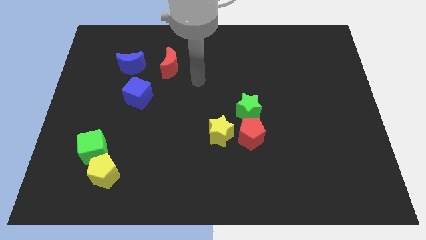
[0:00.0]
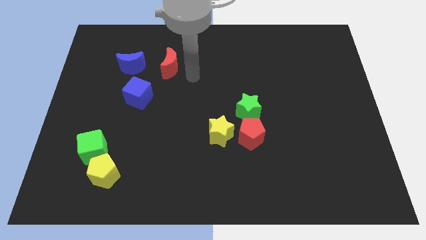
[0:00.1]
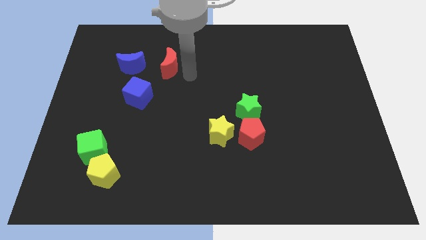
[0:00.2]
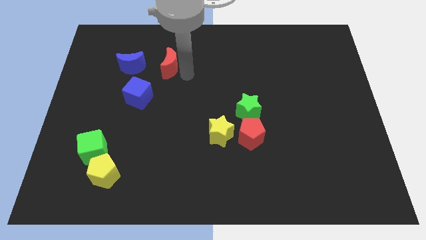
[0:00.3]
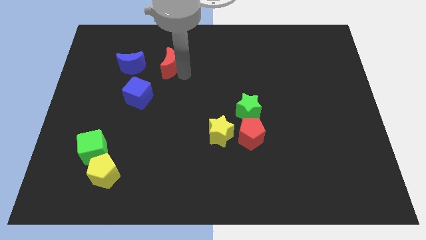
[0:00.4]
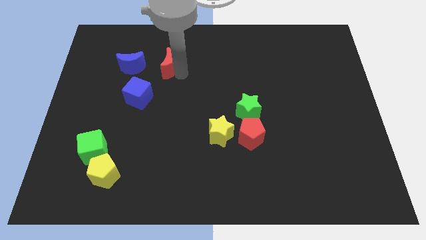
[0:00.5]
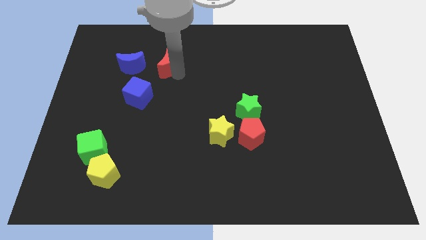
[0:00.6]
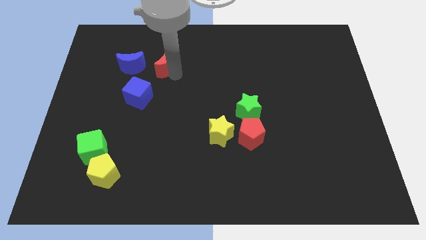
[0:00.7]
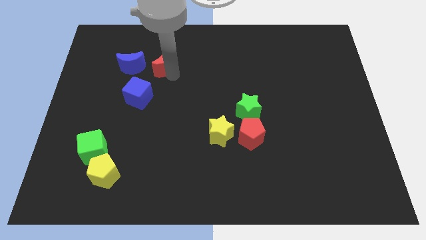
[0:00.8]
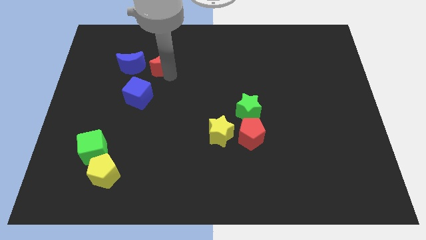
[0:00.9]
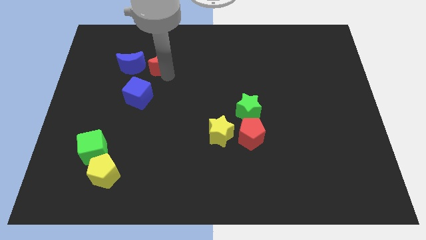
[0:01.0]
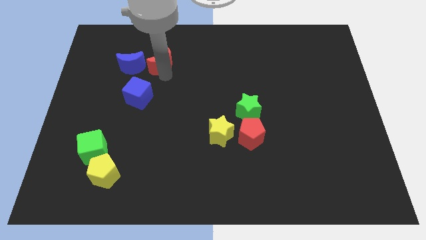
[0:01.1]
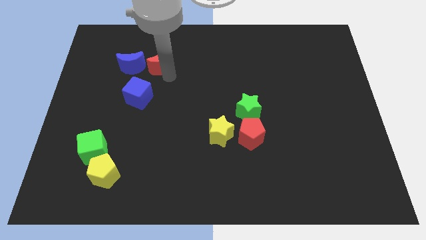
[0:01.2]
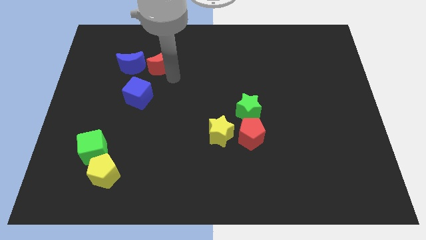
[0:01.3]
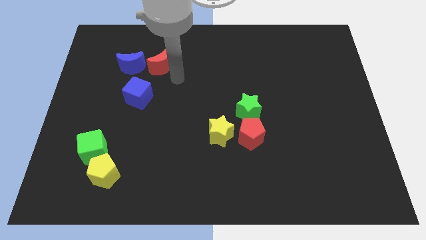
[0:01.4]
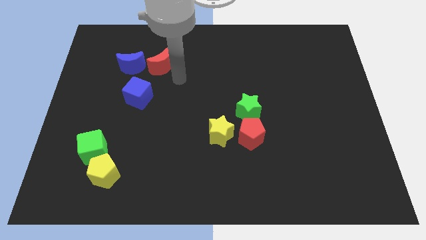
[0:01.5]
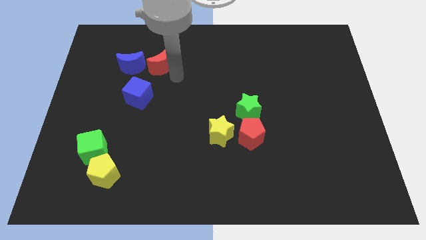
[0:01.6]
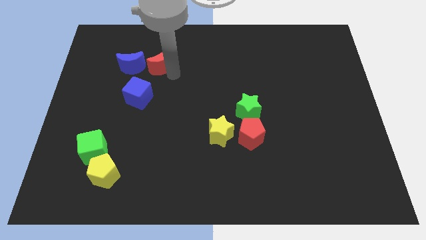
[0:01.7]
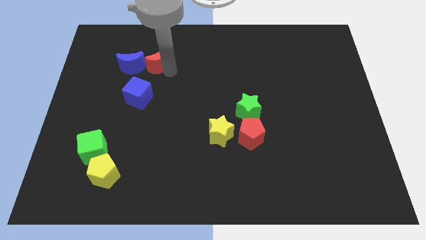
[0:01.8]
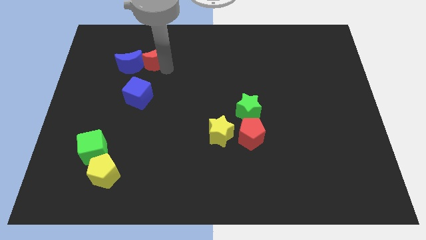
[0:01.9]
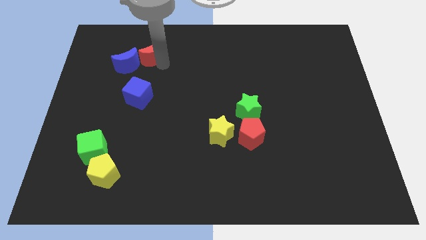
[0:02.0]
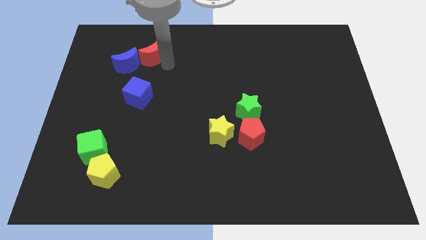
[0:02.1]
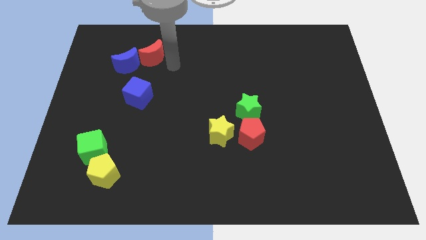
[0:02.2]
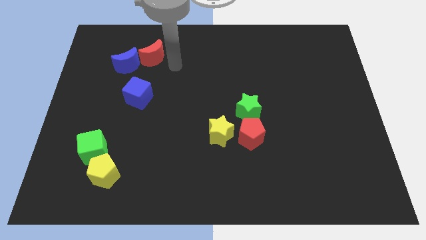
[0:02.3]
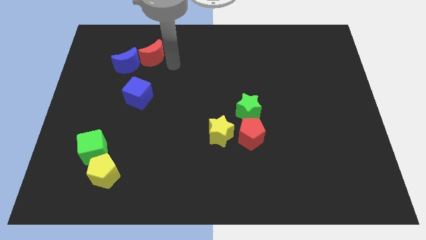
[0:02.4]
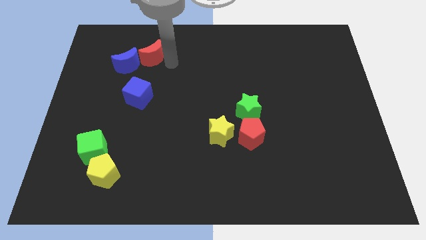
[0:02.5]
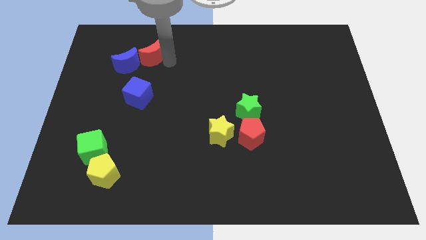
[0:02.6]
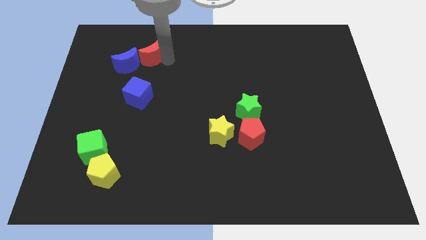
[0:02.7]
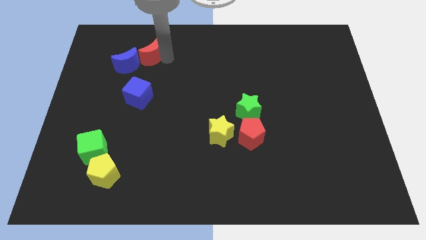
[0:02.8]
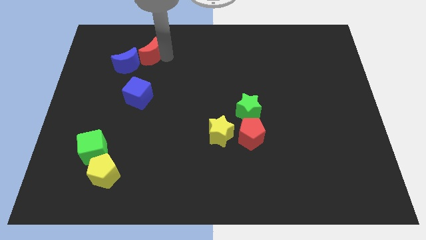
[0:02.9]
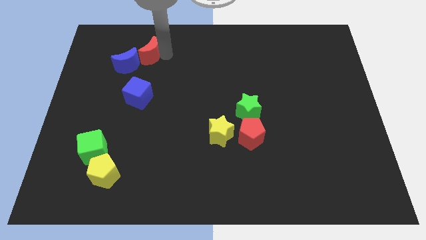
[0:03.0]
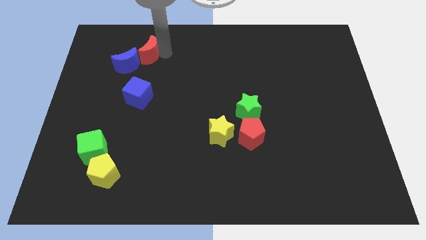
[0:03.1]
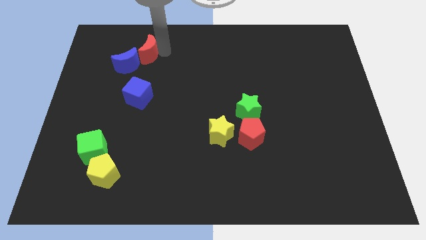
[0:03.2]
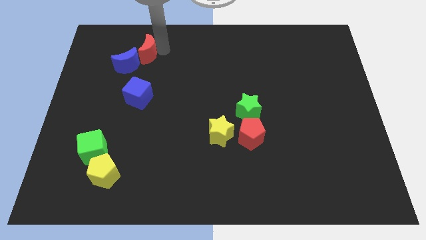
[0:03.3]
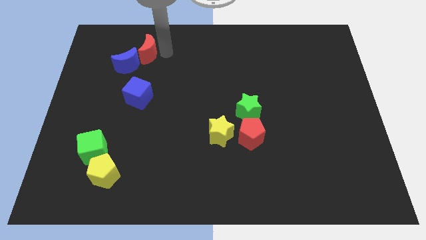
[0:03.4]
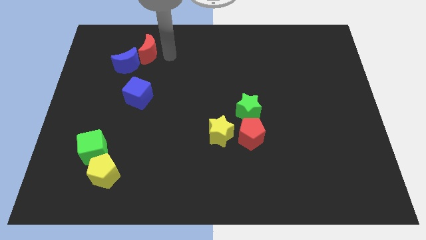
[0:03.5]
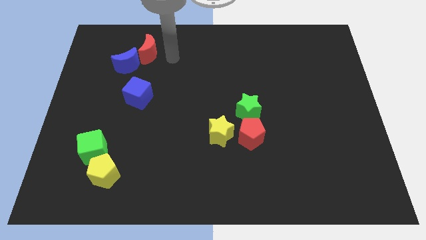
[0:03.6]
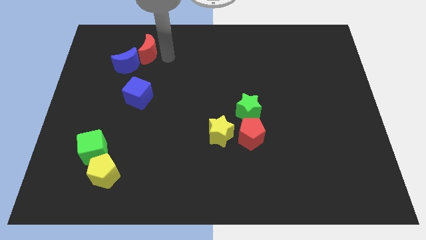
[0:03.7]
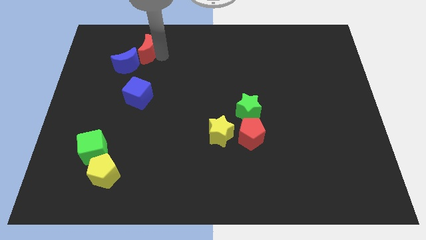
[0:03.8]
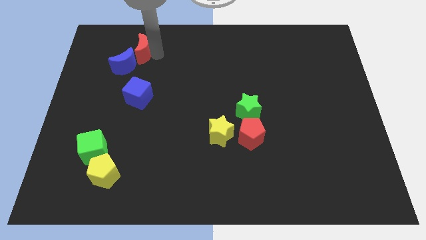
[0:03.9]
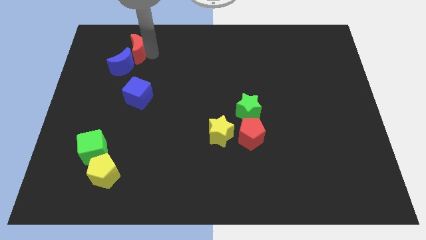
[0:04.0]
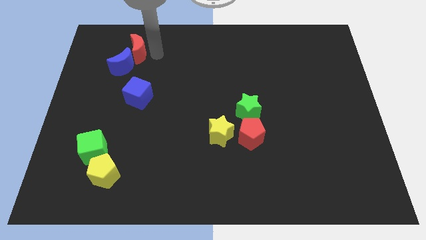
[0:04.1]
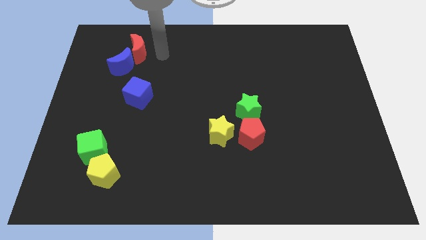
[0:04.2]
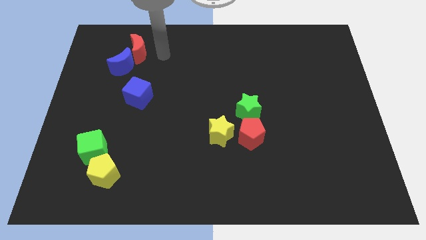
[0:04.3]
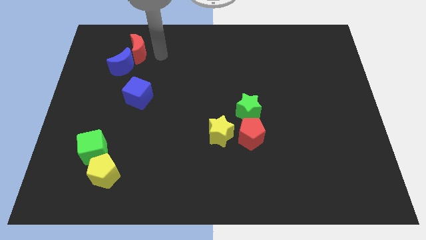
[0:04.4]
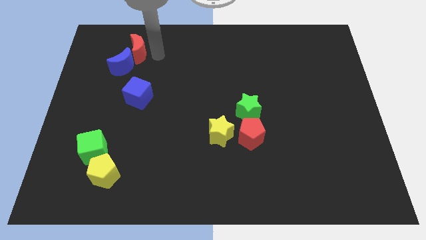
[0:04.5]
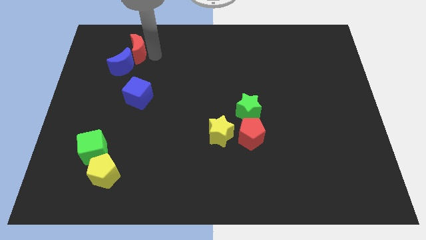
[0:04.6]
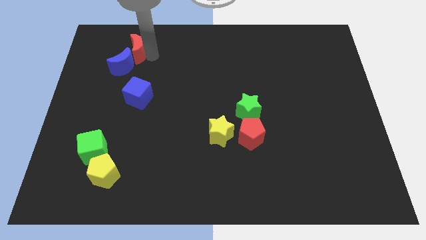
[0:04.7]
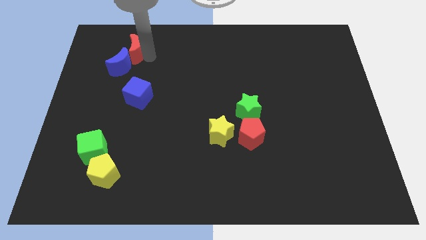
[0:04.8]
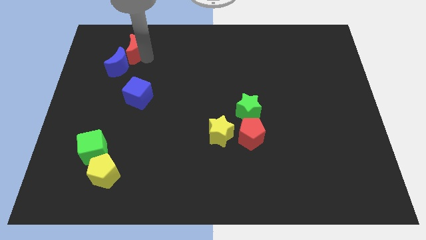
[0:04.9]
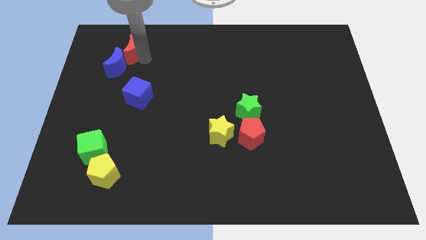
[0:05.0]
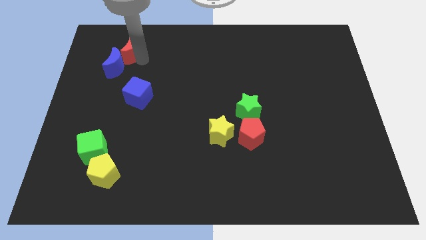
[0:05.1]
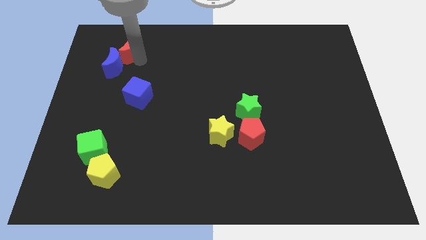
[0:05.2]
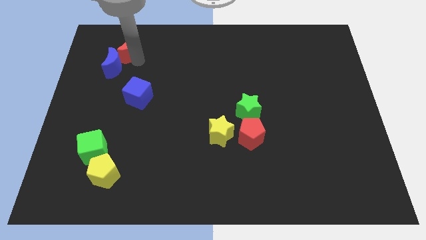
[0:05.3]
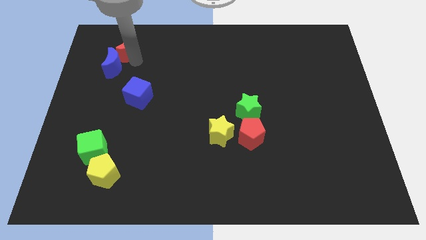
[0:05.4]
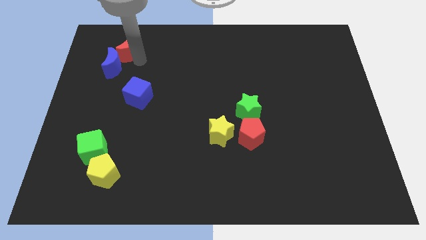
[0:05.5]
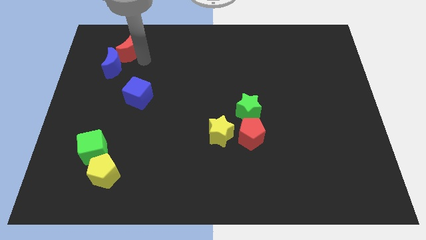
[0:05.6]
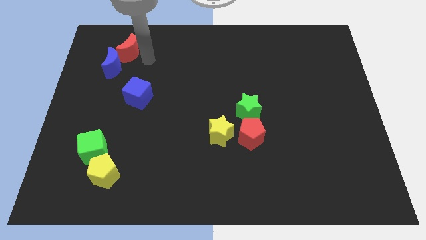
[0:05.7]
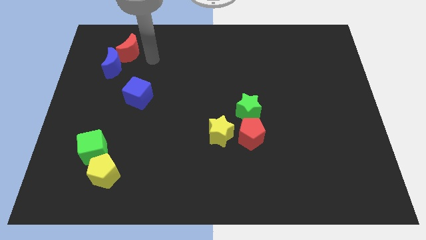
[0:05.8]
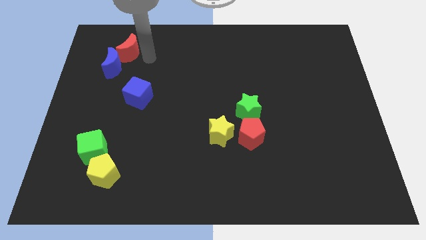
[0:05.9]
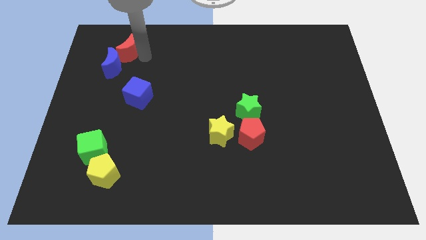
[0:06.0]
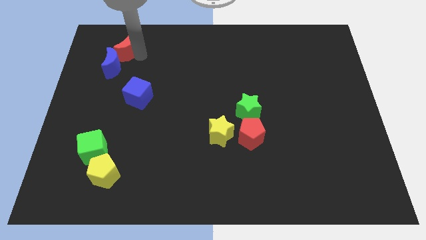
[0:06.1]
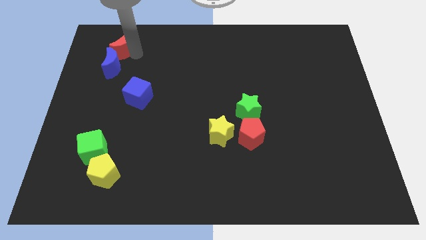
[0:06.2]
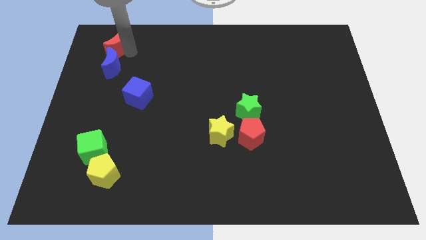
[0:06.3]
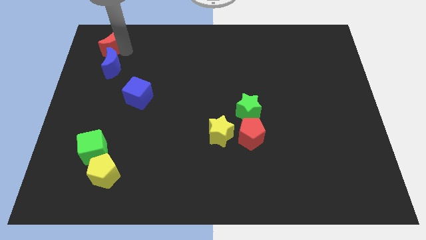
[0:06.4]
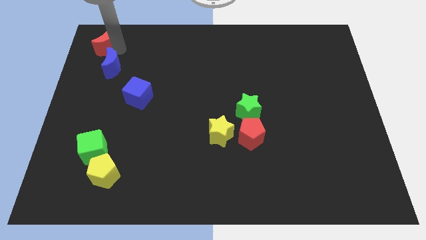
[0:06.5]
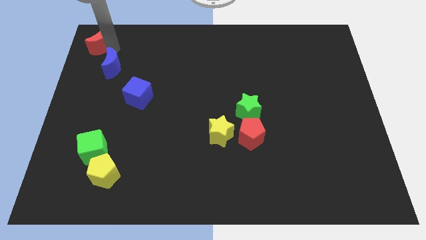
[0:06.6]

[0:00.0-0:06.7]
move the red moon to the top left of the board
